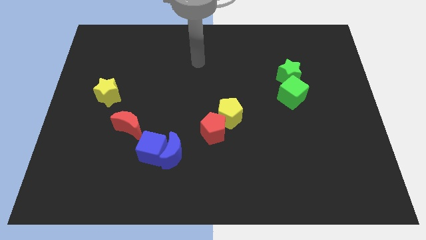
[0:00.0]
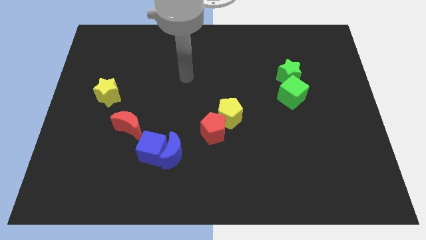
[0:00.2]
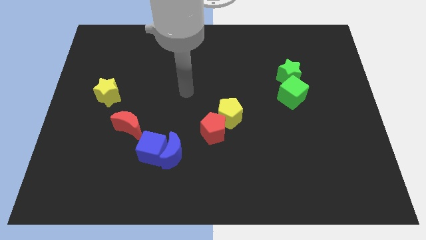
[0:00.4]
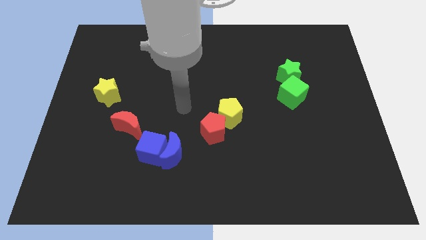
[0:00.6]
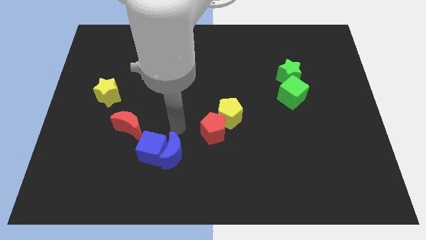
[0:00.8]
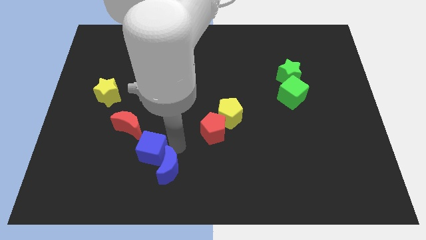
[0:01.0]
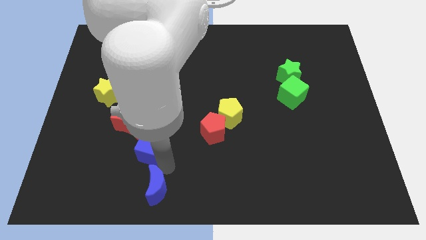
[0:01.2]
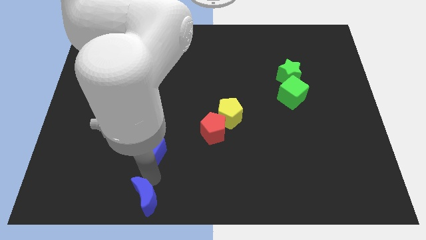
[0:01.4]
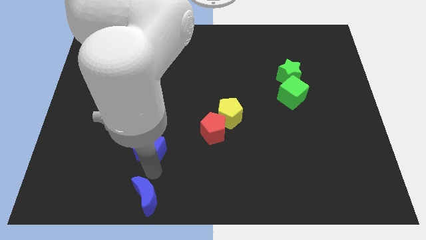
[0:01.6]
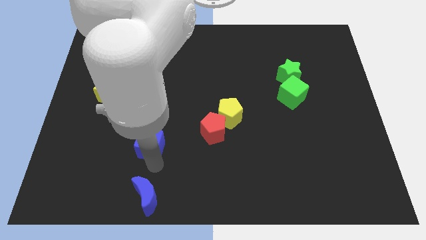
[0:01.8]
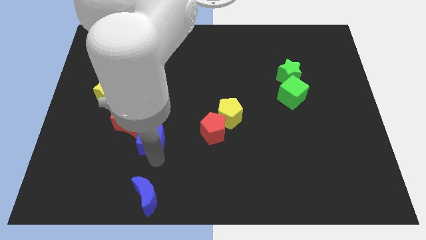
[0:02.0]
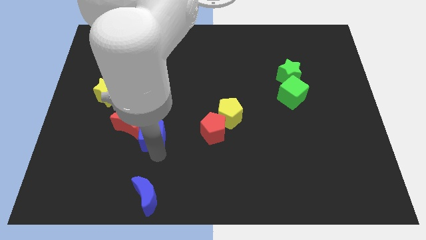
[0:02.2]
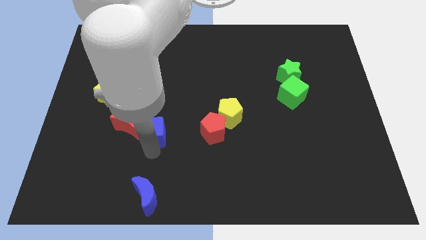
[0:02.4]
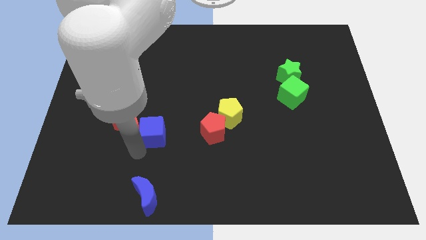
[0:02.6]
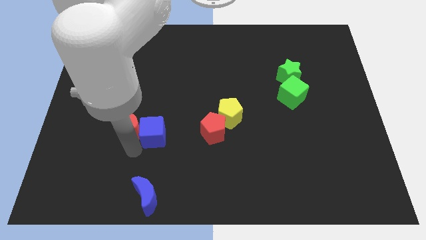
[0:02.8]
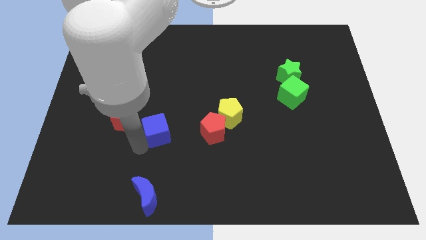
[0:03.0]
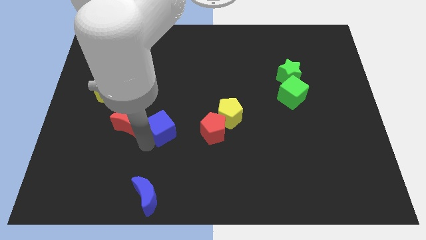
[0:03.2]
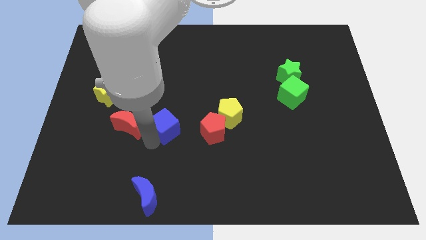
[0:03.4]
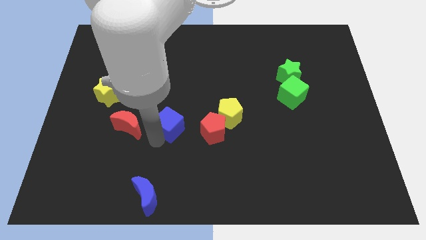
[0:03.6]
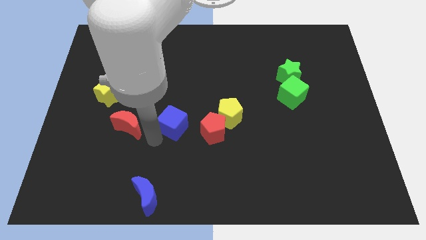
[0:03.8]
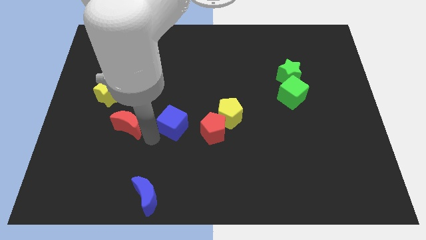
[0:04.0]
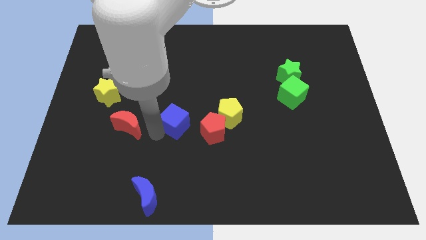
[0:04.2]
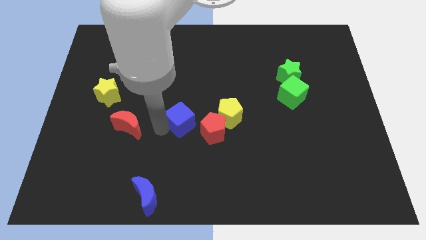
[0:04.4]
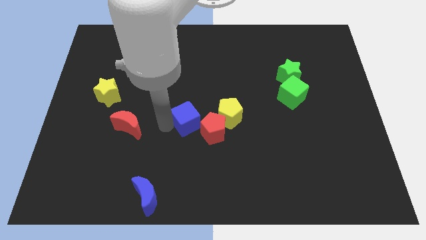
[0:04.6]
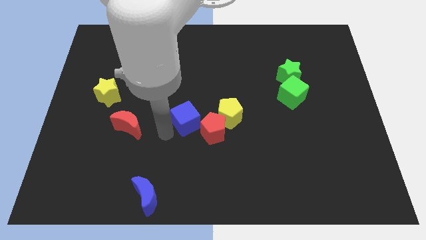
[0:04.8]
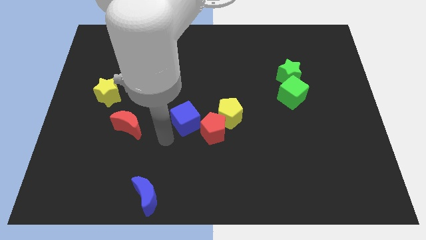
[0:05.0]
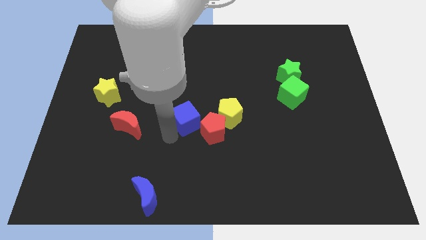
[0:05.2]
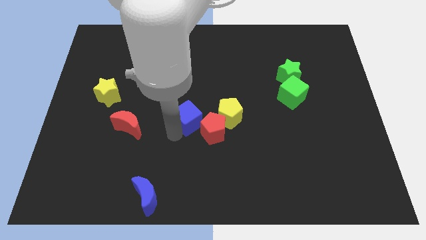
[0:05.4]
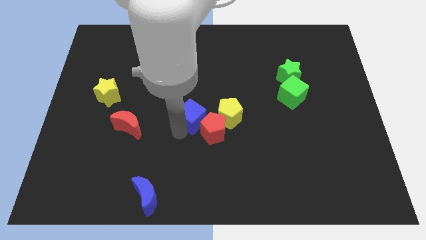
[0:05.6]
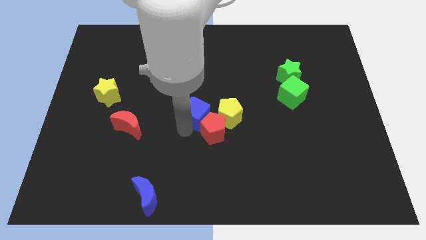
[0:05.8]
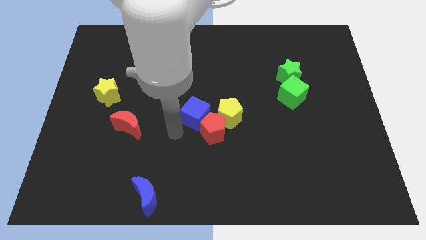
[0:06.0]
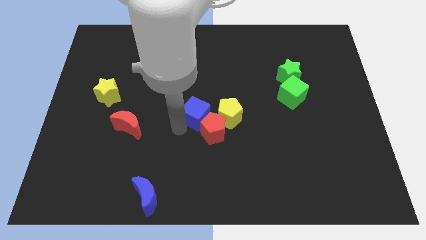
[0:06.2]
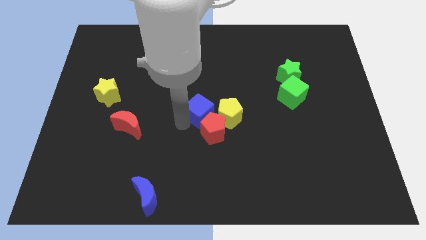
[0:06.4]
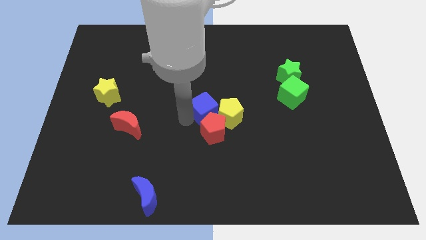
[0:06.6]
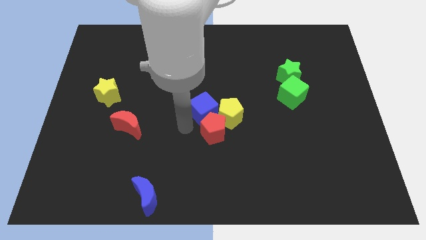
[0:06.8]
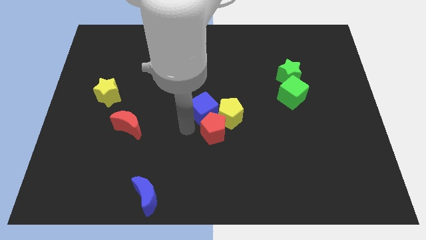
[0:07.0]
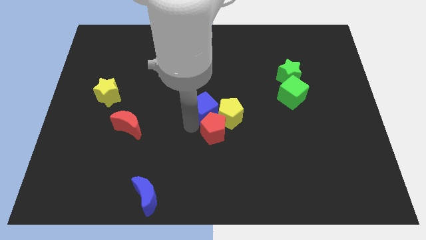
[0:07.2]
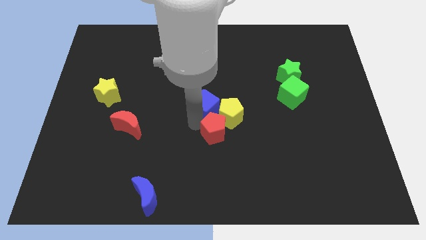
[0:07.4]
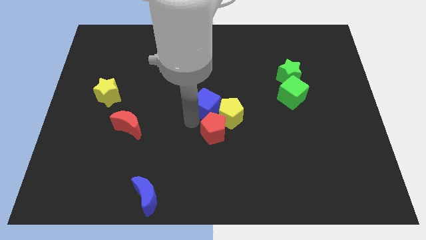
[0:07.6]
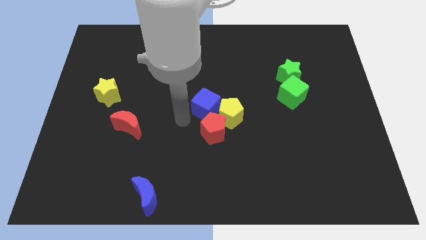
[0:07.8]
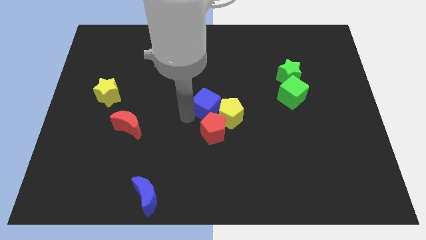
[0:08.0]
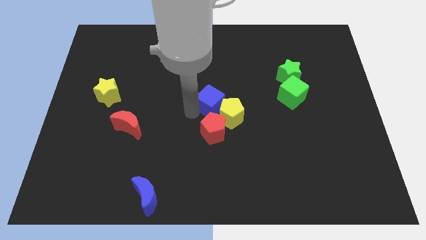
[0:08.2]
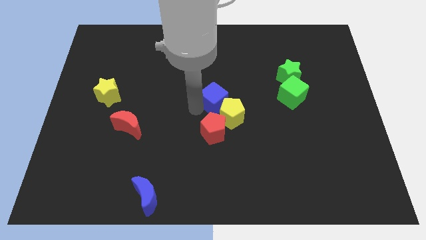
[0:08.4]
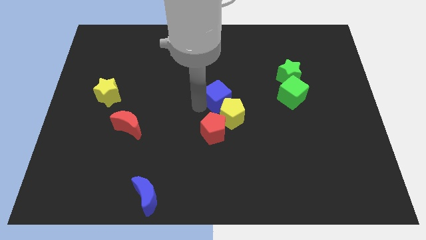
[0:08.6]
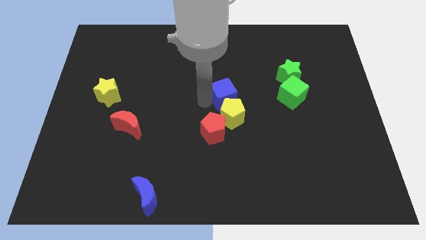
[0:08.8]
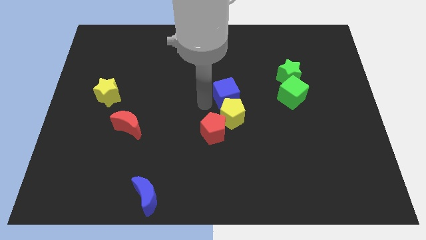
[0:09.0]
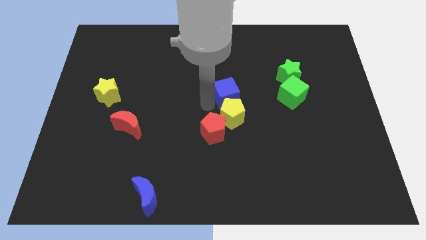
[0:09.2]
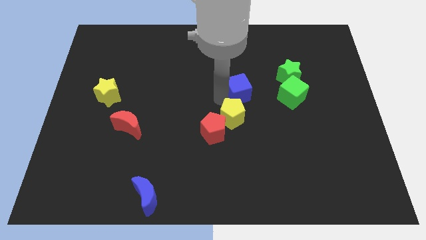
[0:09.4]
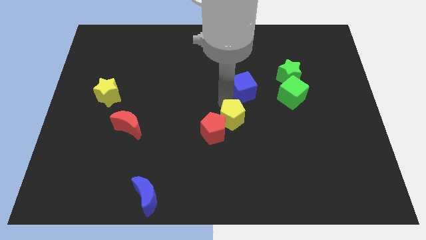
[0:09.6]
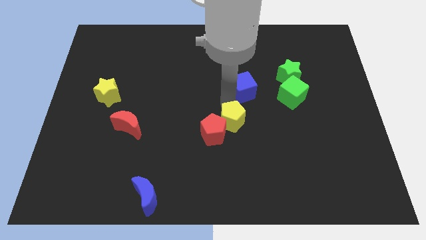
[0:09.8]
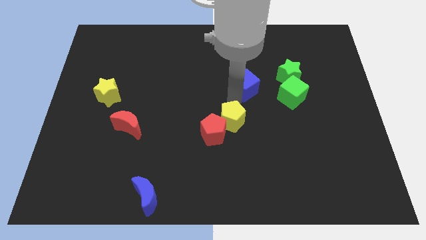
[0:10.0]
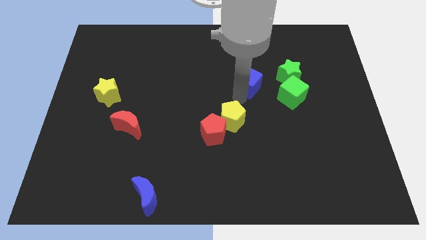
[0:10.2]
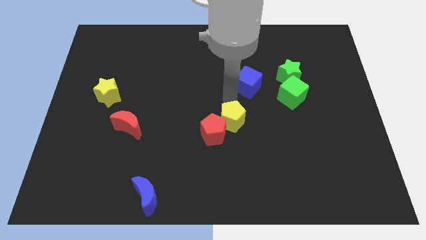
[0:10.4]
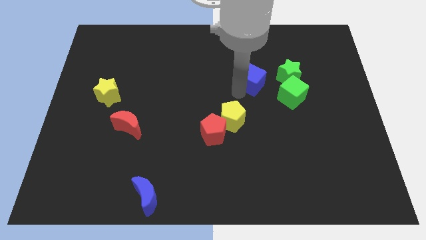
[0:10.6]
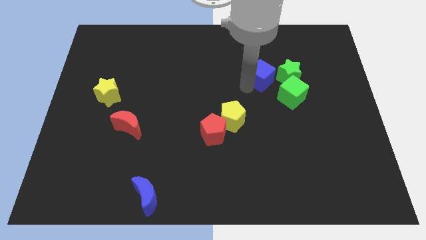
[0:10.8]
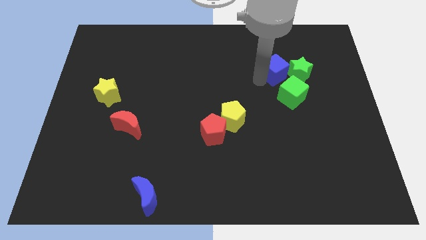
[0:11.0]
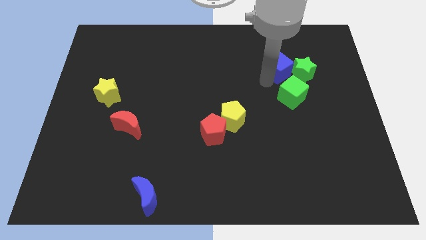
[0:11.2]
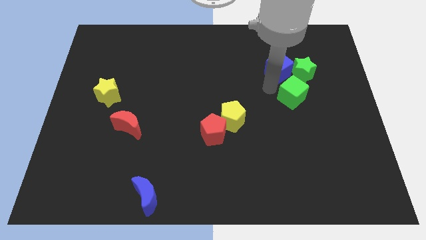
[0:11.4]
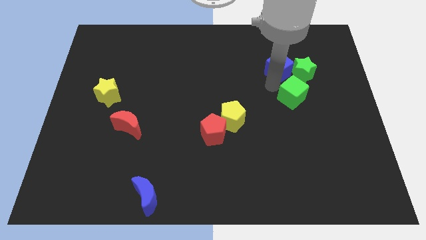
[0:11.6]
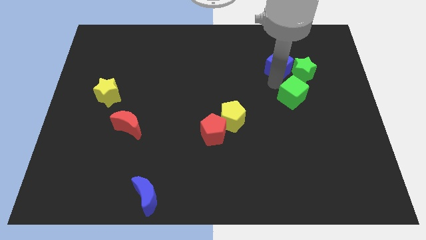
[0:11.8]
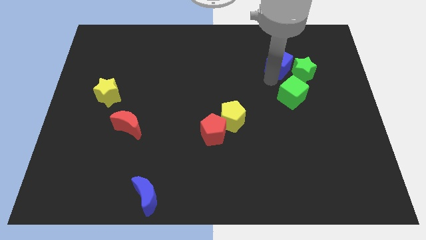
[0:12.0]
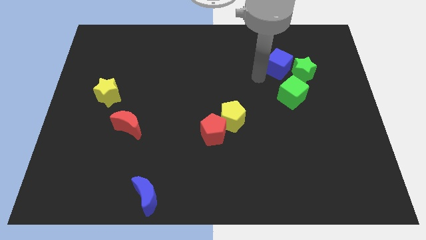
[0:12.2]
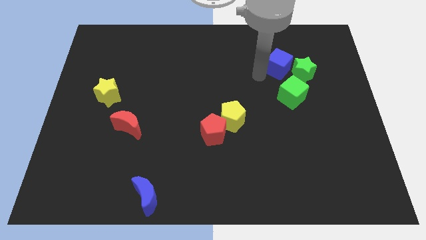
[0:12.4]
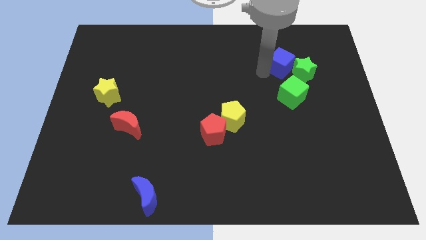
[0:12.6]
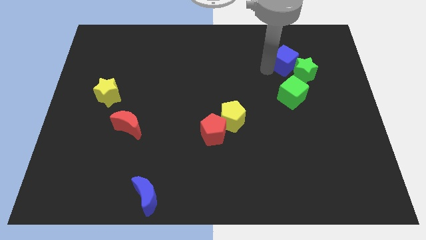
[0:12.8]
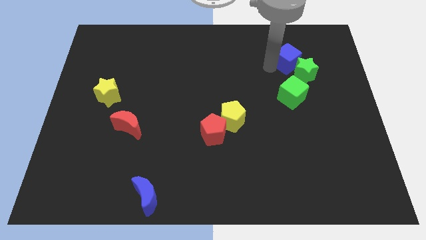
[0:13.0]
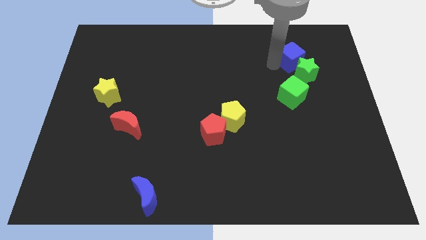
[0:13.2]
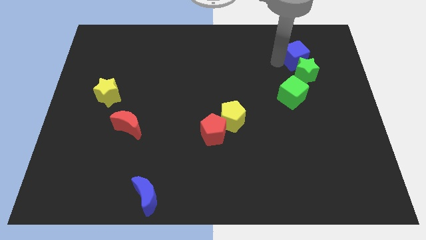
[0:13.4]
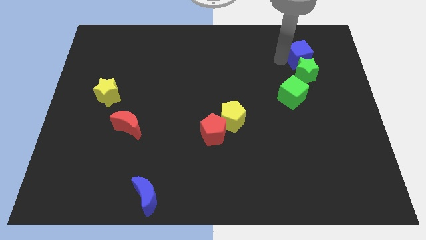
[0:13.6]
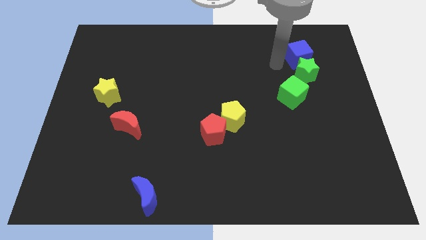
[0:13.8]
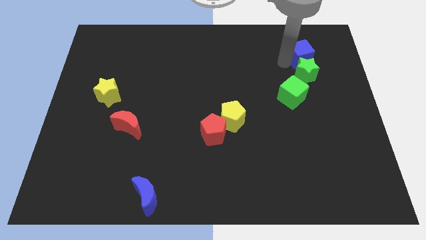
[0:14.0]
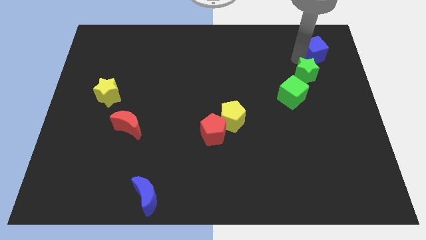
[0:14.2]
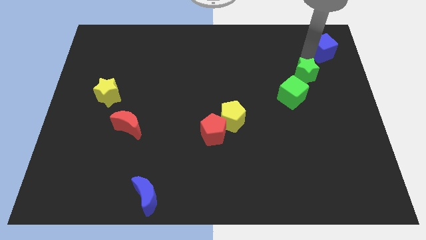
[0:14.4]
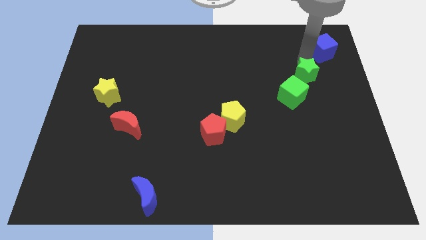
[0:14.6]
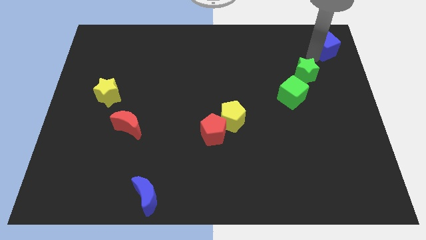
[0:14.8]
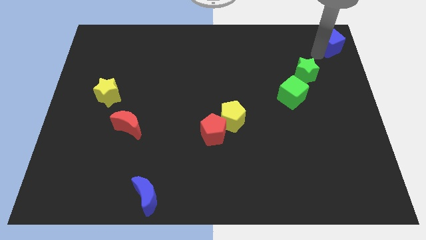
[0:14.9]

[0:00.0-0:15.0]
slide the blue cube to the top right of the board

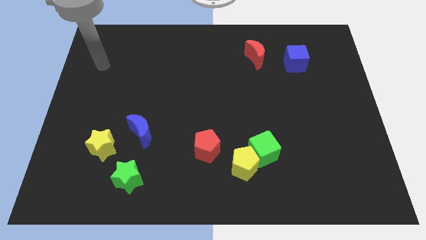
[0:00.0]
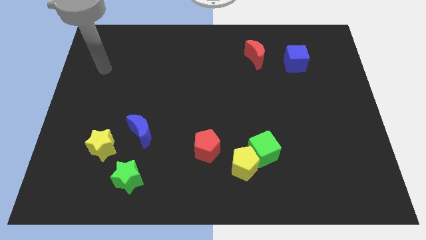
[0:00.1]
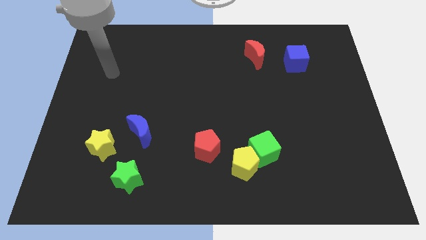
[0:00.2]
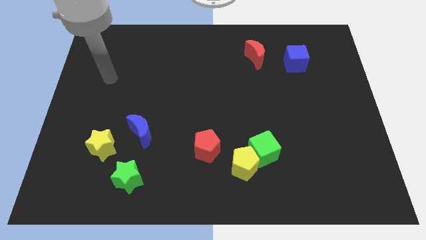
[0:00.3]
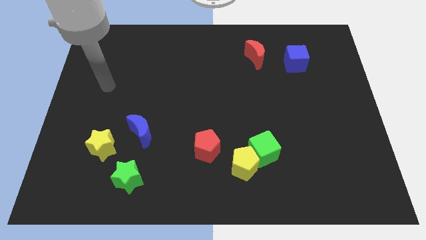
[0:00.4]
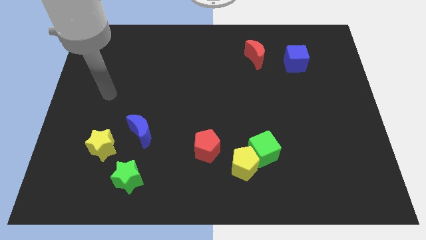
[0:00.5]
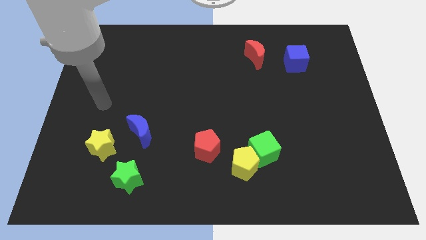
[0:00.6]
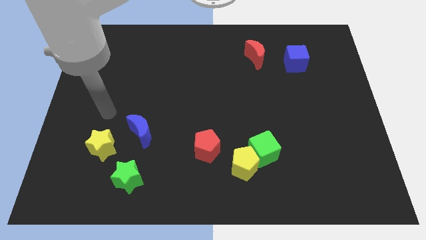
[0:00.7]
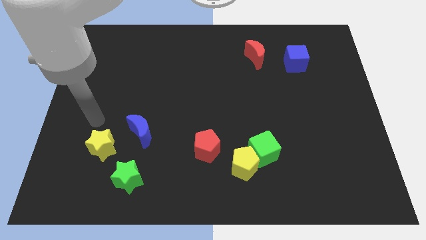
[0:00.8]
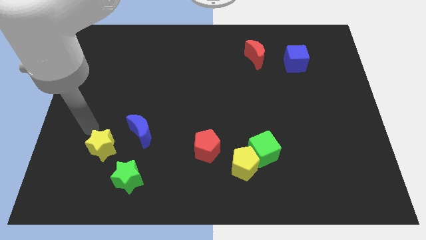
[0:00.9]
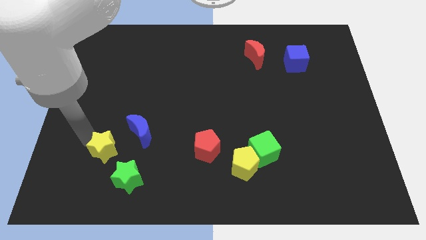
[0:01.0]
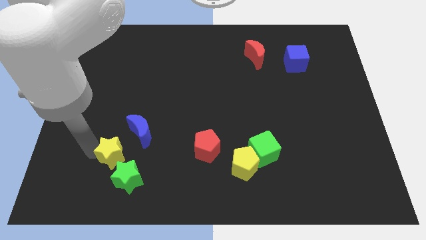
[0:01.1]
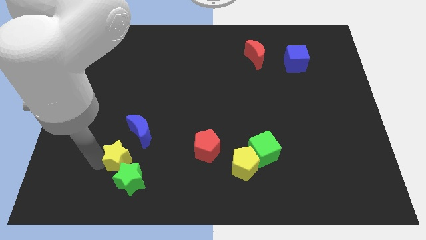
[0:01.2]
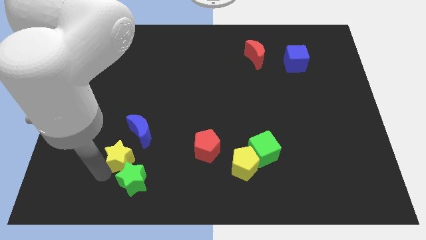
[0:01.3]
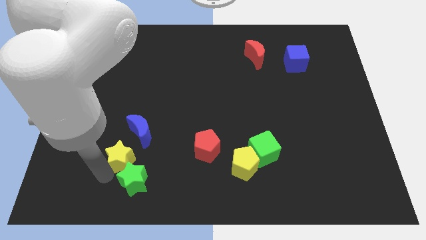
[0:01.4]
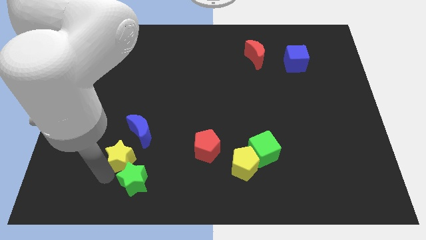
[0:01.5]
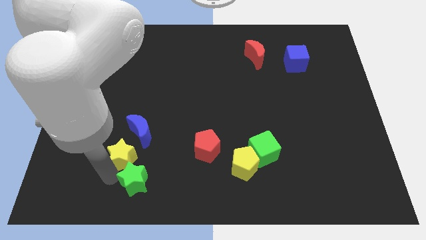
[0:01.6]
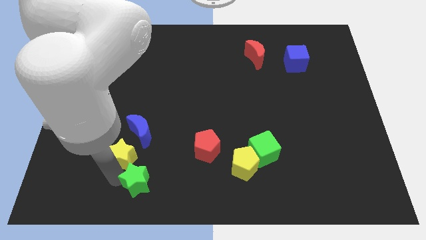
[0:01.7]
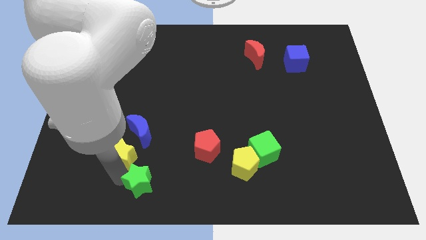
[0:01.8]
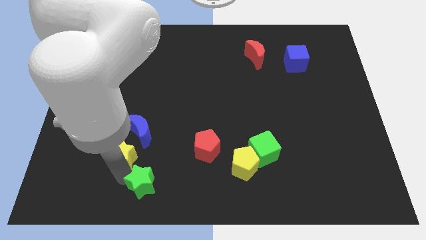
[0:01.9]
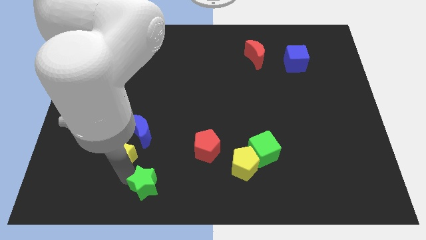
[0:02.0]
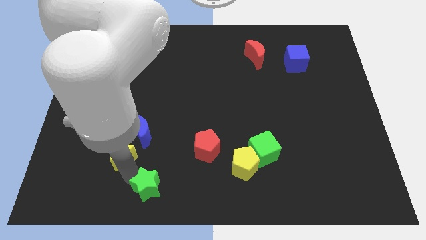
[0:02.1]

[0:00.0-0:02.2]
put the green star to the bottom side
